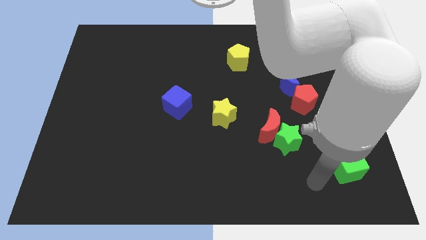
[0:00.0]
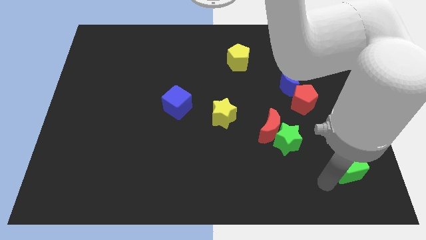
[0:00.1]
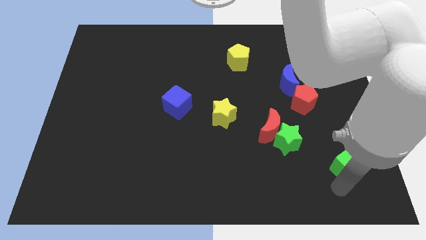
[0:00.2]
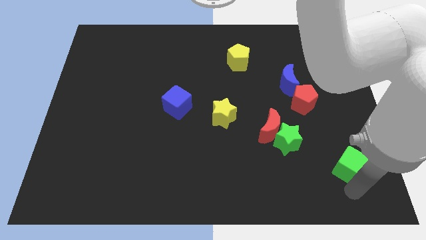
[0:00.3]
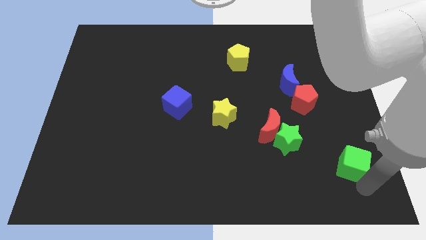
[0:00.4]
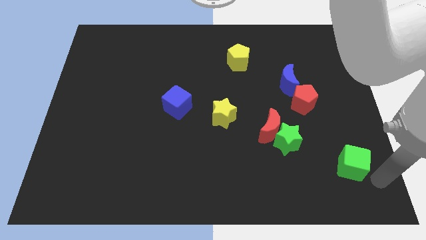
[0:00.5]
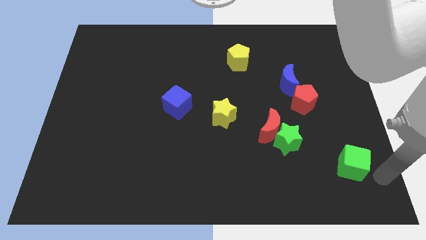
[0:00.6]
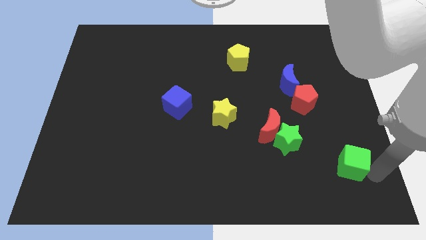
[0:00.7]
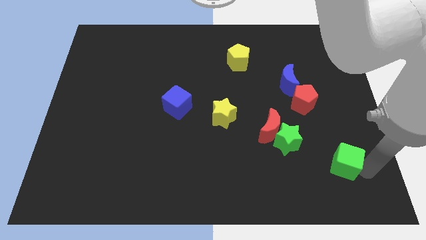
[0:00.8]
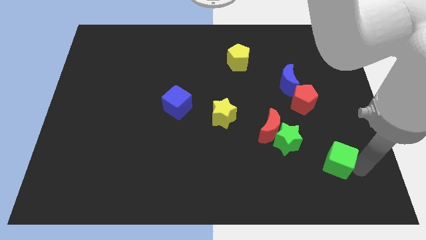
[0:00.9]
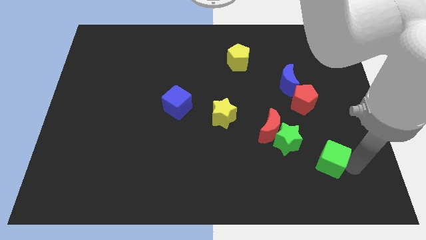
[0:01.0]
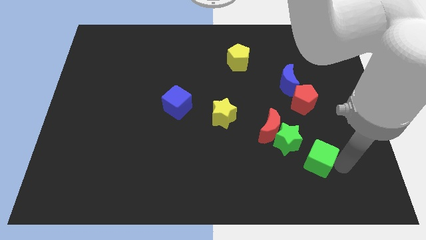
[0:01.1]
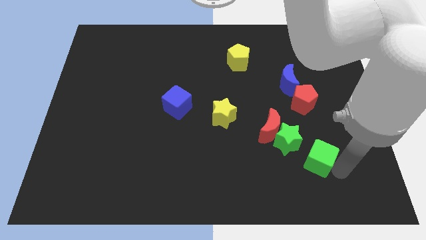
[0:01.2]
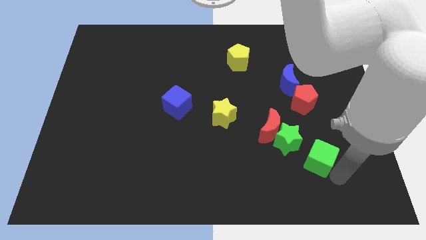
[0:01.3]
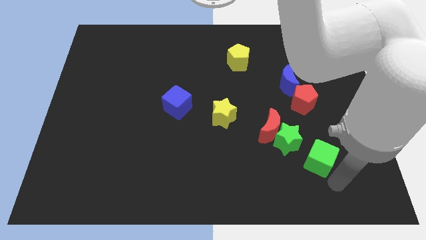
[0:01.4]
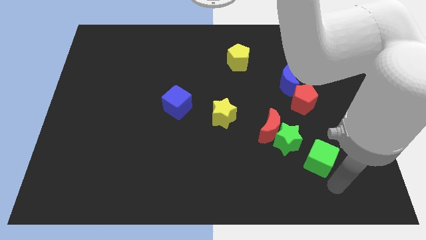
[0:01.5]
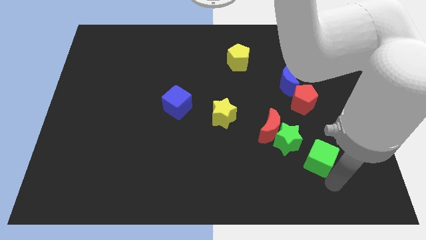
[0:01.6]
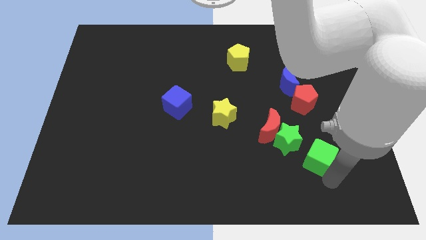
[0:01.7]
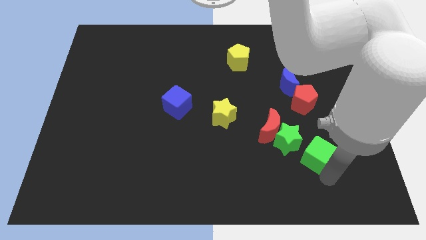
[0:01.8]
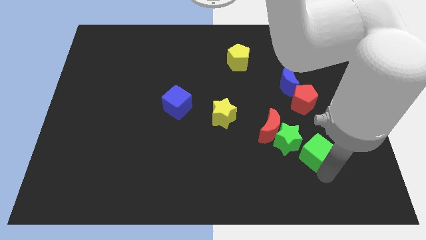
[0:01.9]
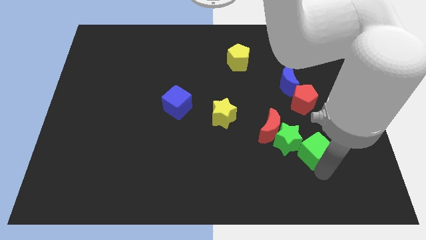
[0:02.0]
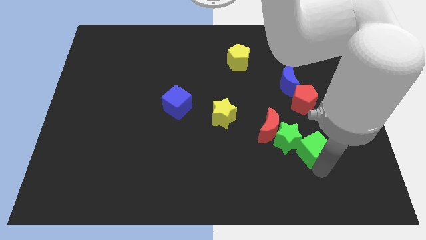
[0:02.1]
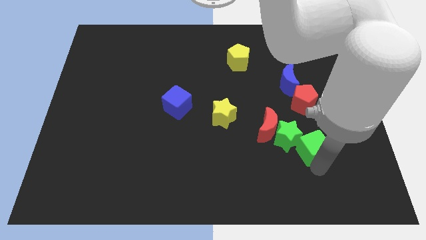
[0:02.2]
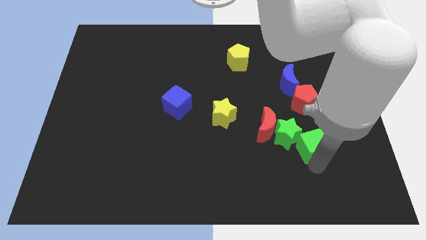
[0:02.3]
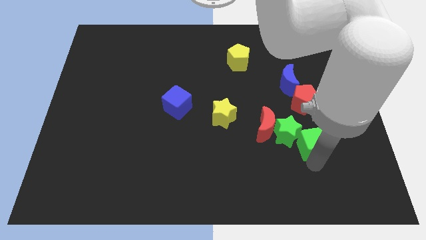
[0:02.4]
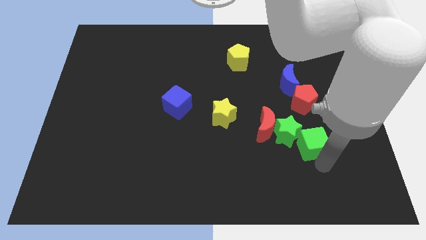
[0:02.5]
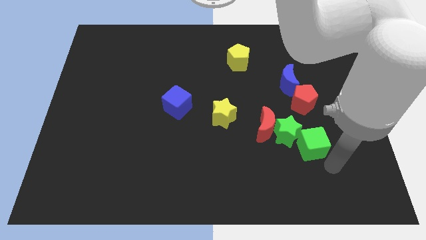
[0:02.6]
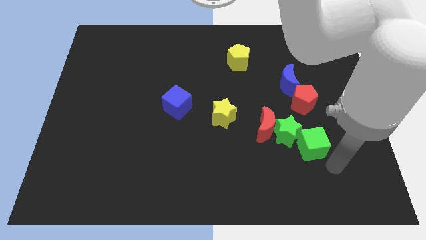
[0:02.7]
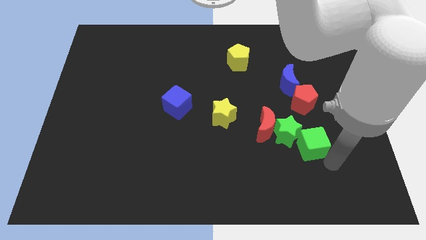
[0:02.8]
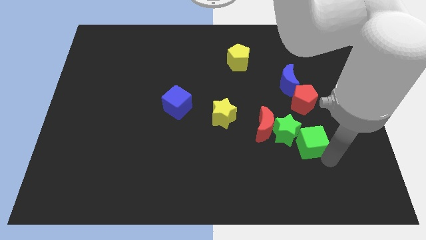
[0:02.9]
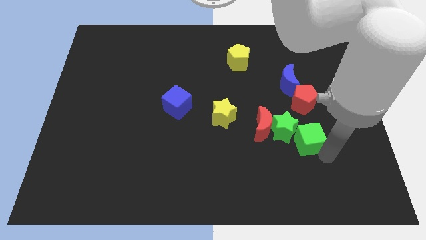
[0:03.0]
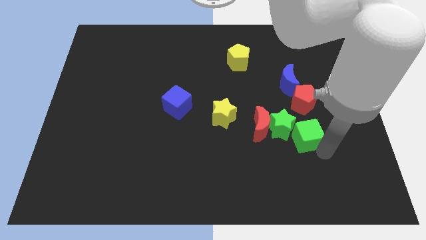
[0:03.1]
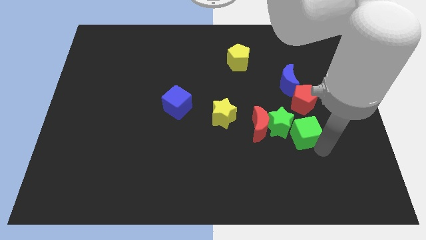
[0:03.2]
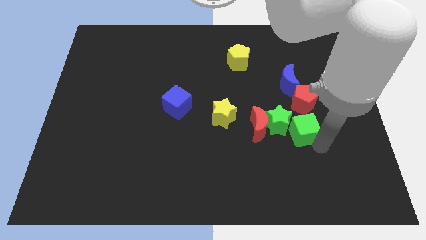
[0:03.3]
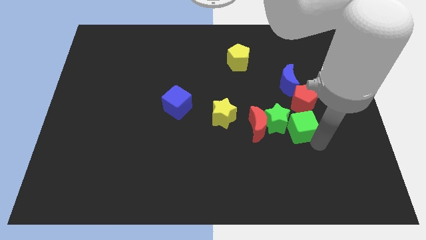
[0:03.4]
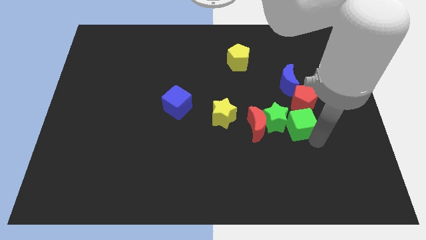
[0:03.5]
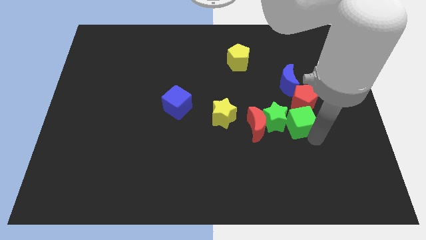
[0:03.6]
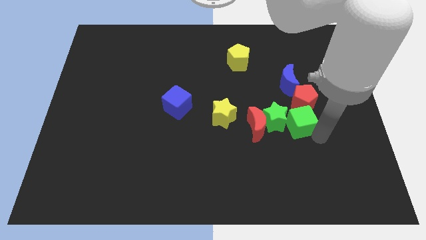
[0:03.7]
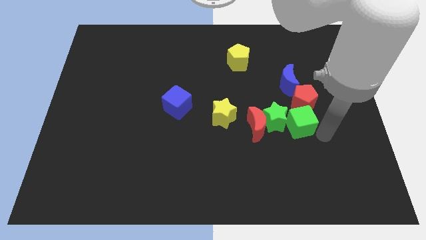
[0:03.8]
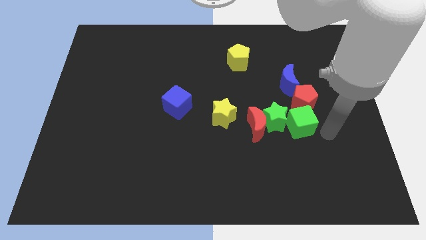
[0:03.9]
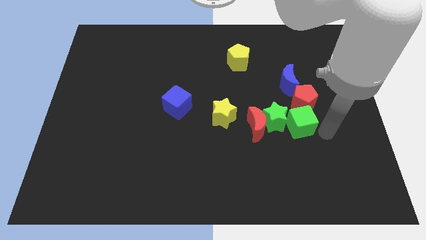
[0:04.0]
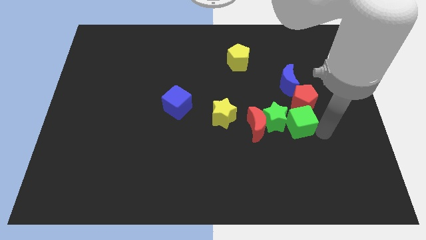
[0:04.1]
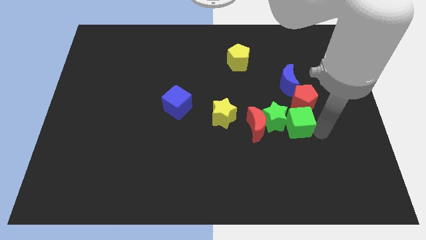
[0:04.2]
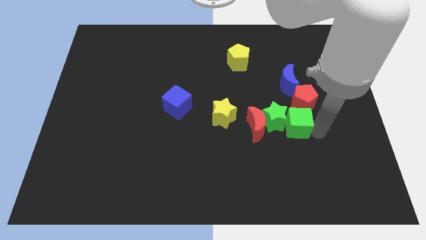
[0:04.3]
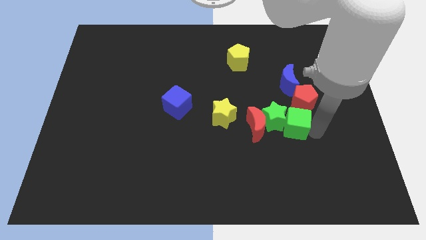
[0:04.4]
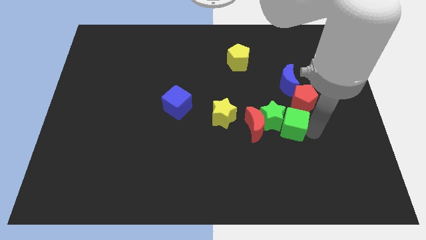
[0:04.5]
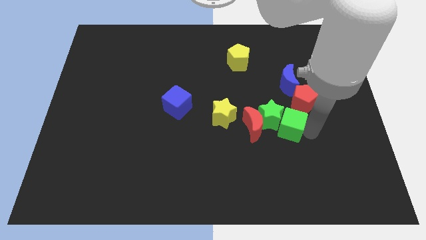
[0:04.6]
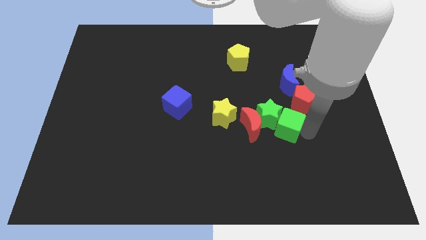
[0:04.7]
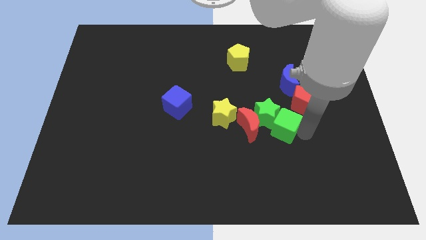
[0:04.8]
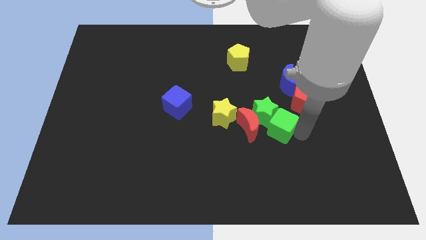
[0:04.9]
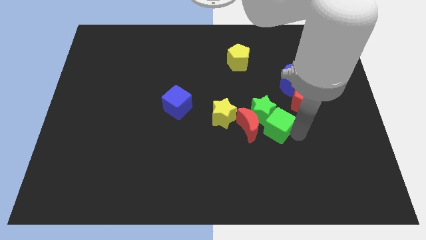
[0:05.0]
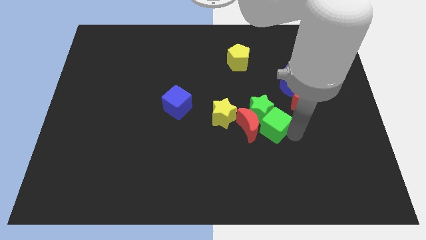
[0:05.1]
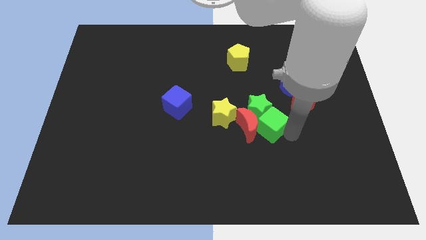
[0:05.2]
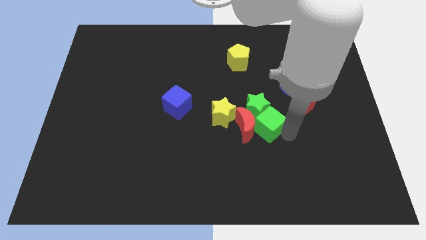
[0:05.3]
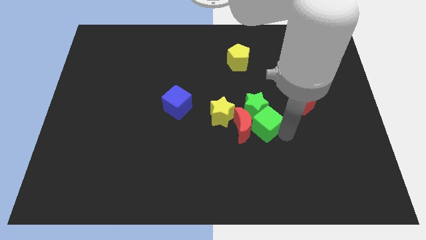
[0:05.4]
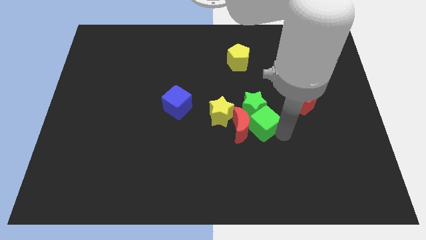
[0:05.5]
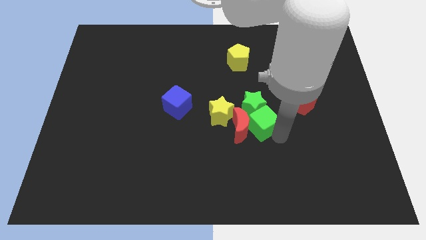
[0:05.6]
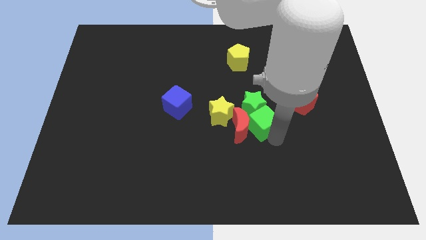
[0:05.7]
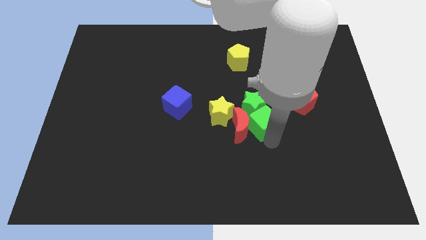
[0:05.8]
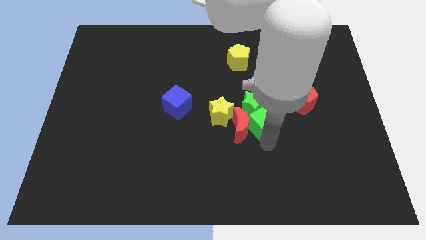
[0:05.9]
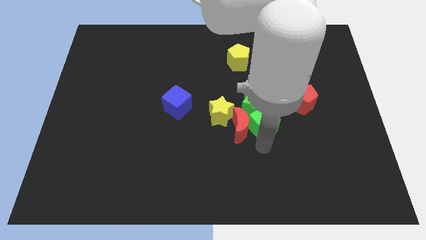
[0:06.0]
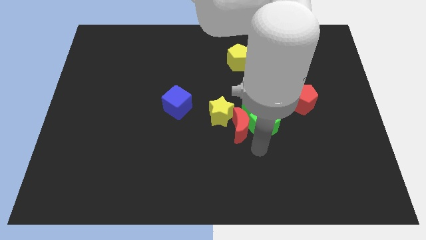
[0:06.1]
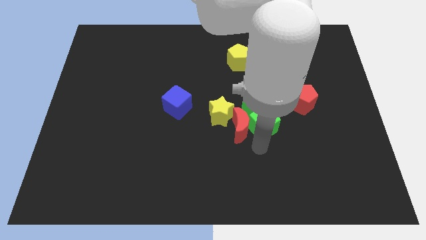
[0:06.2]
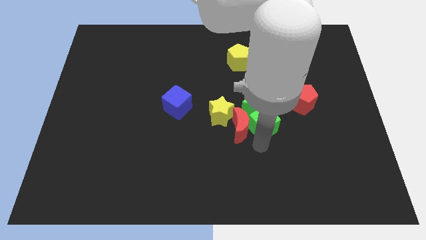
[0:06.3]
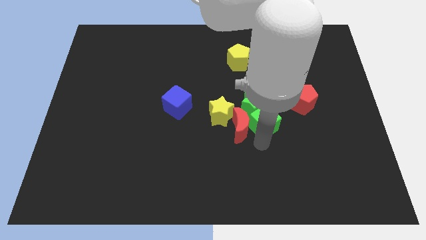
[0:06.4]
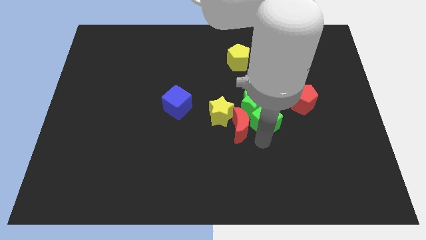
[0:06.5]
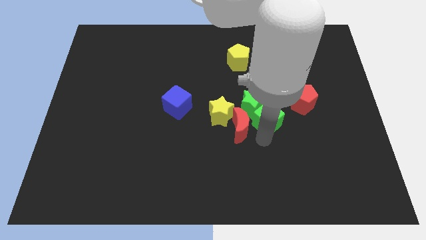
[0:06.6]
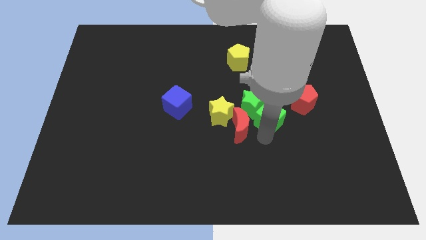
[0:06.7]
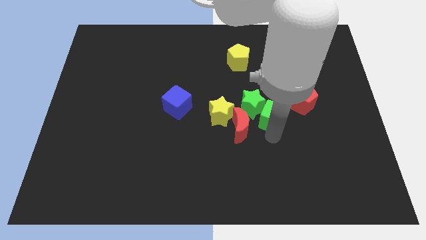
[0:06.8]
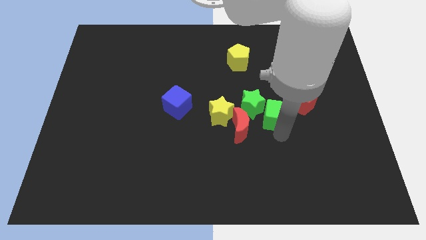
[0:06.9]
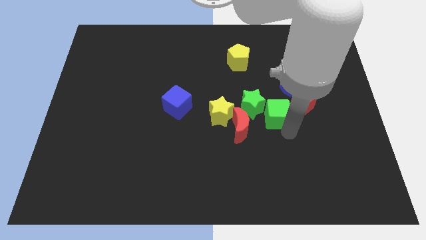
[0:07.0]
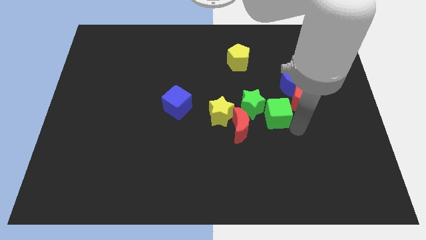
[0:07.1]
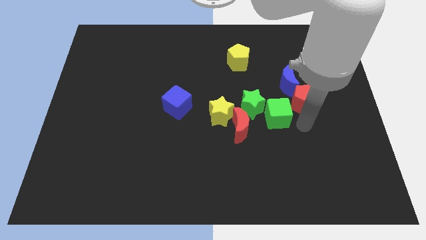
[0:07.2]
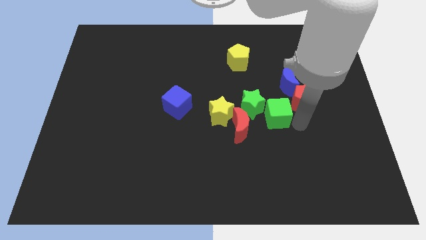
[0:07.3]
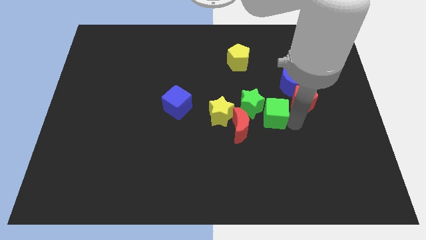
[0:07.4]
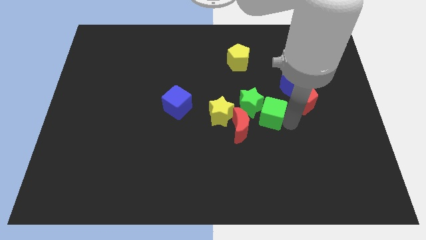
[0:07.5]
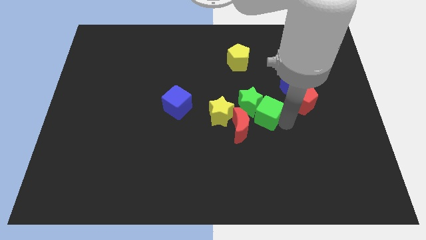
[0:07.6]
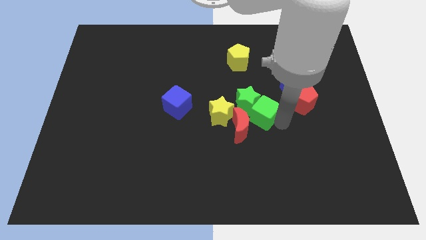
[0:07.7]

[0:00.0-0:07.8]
slide the green cube to the middle
